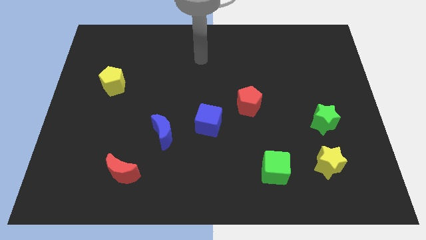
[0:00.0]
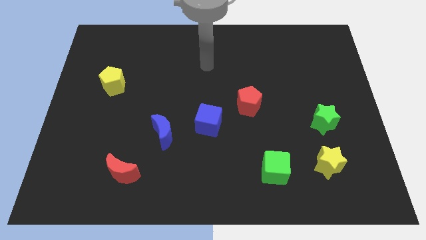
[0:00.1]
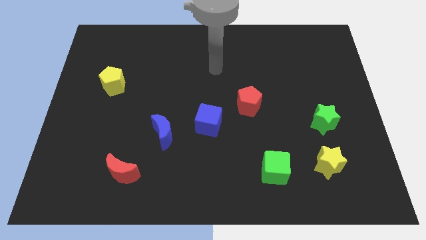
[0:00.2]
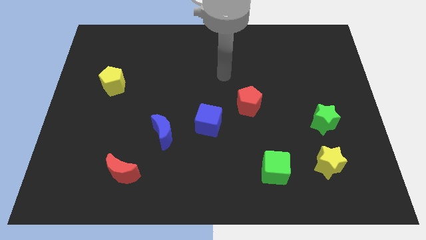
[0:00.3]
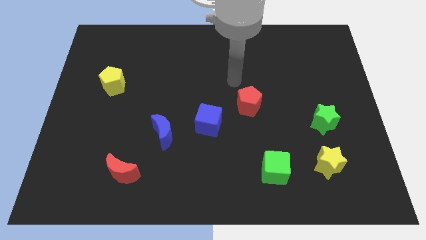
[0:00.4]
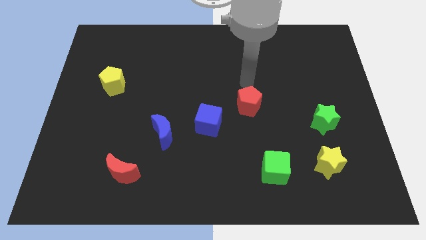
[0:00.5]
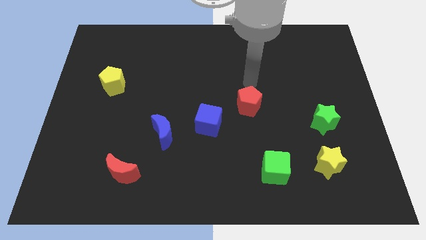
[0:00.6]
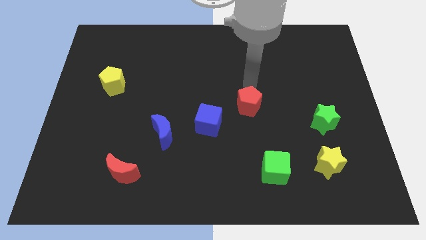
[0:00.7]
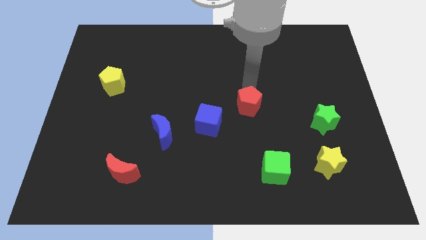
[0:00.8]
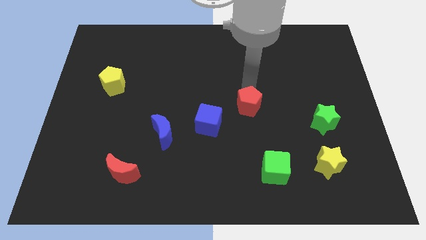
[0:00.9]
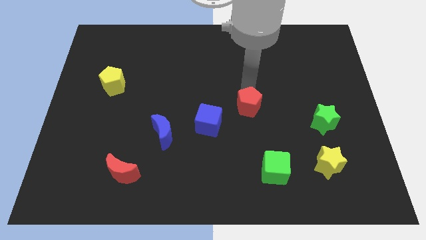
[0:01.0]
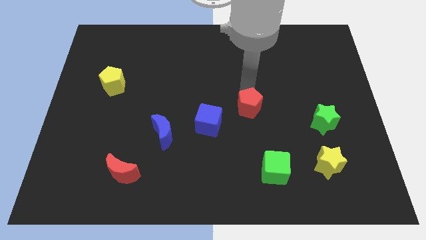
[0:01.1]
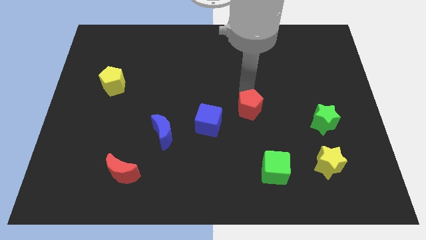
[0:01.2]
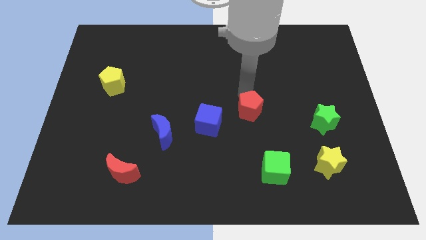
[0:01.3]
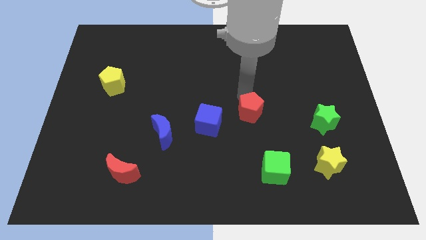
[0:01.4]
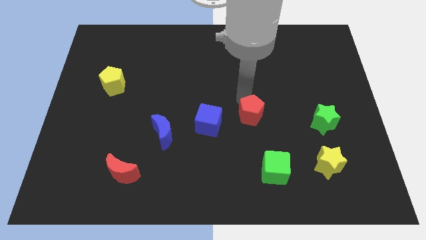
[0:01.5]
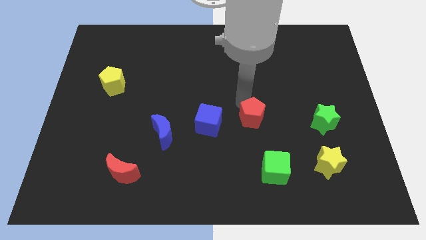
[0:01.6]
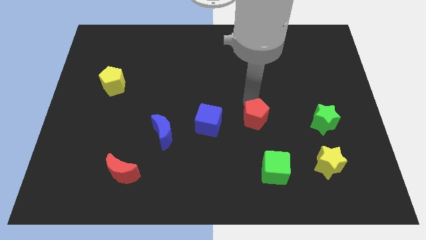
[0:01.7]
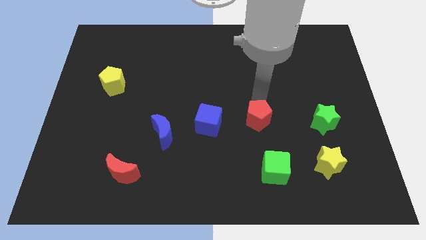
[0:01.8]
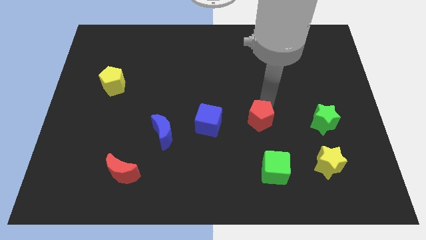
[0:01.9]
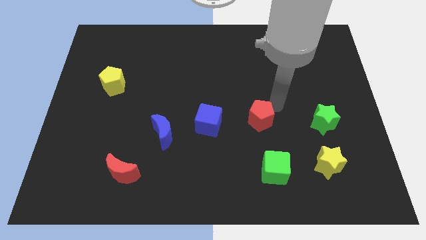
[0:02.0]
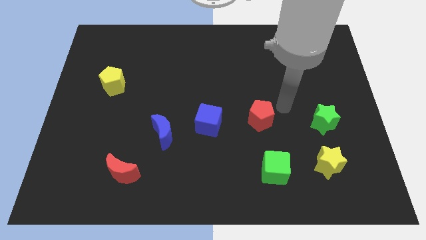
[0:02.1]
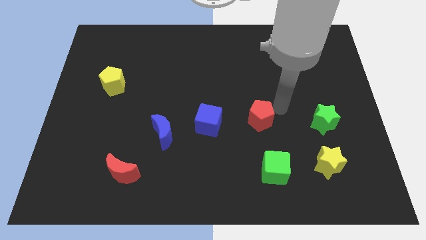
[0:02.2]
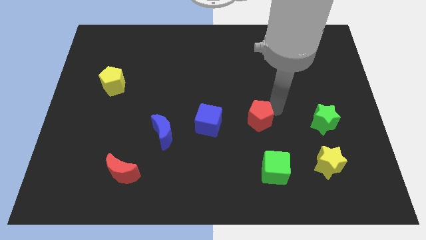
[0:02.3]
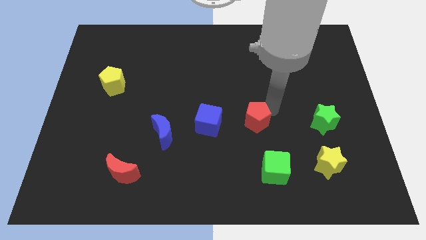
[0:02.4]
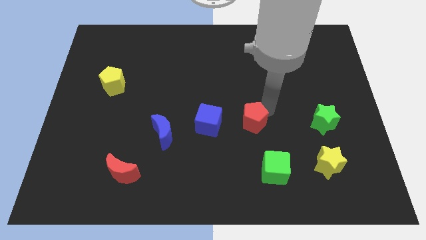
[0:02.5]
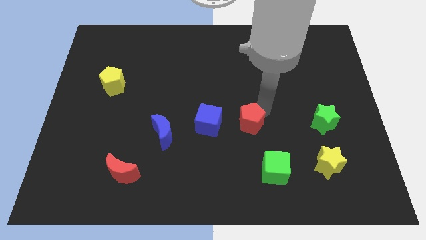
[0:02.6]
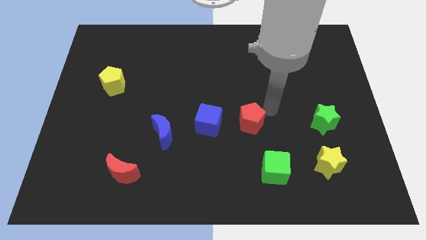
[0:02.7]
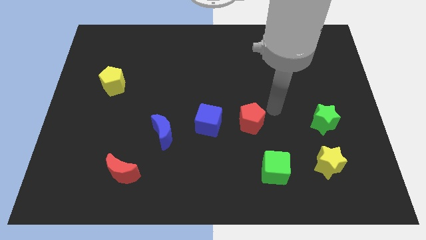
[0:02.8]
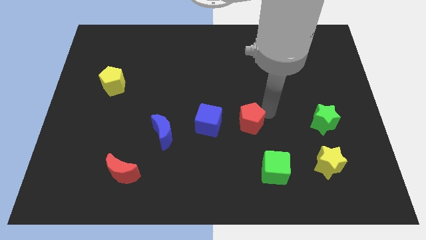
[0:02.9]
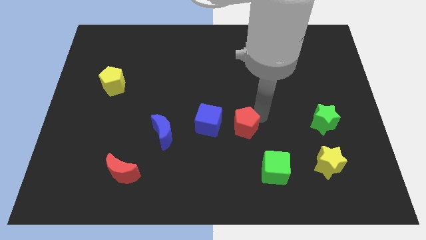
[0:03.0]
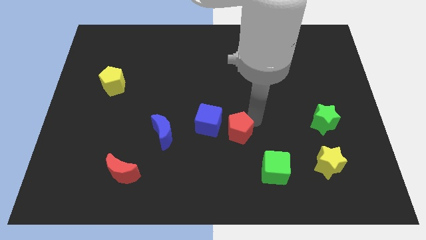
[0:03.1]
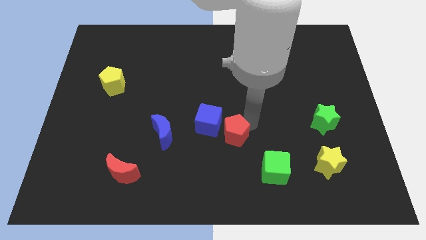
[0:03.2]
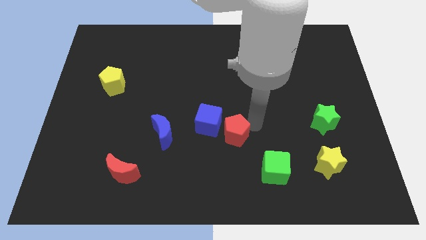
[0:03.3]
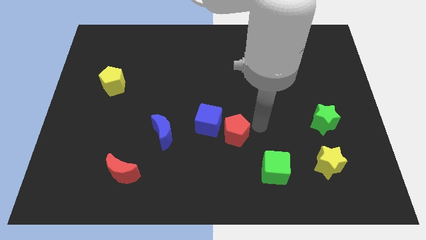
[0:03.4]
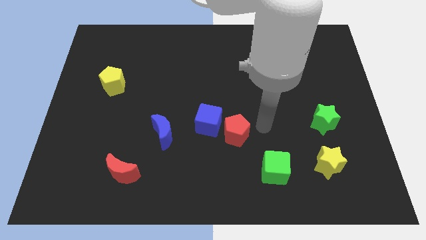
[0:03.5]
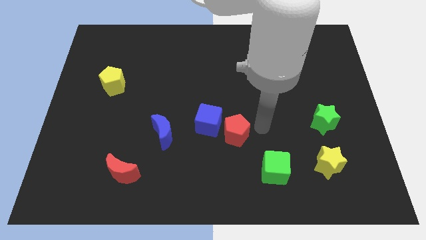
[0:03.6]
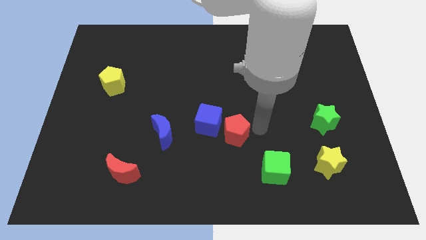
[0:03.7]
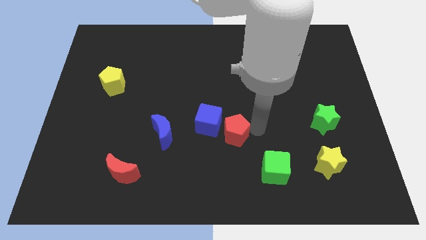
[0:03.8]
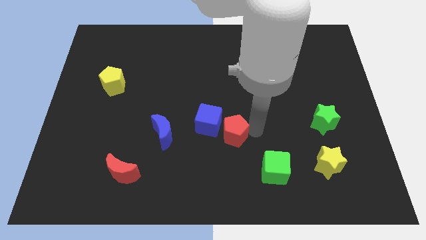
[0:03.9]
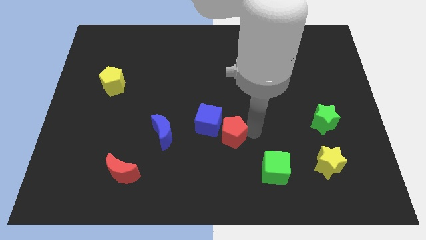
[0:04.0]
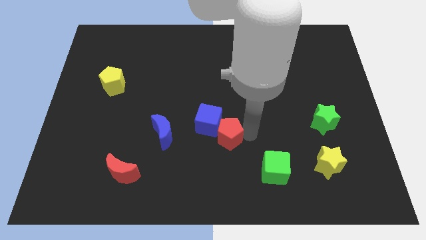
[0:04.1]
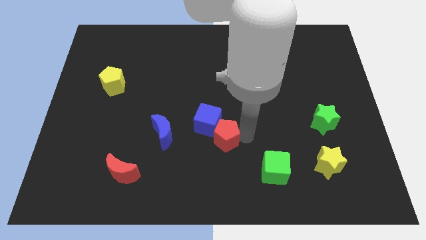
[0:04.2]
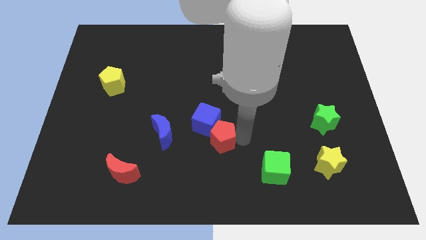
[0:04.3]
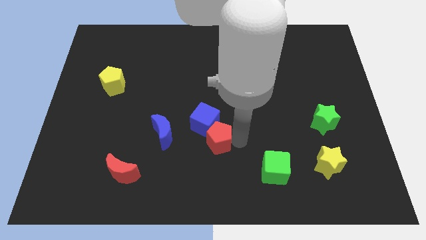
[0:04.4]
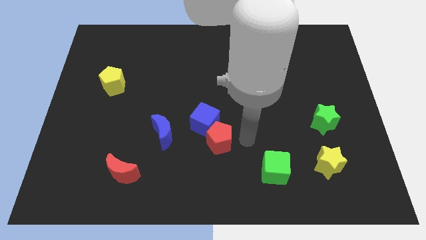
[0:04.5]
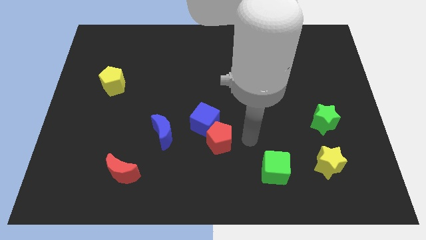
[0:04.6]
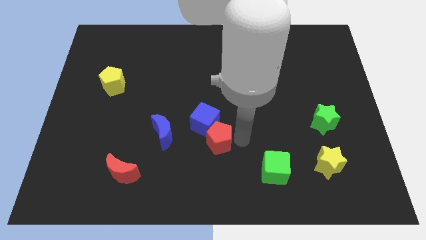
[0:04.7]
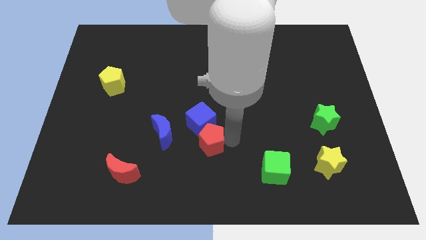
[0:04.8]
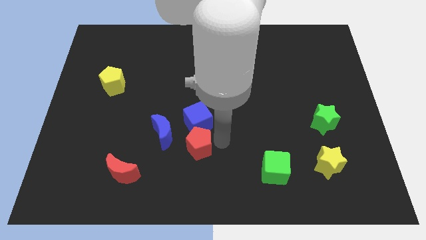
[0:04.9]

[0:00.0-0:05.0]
push the red pentagon diagonally down and to the left of the blue cube

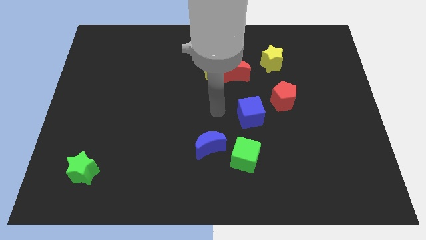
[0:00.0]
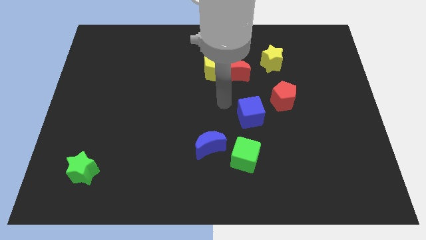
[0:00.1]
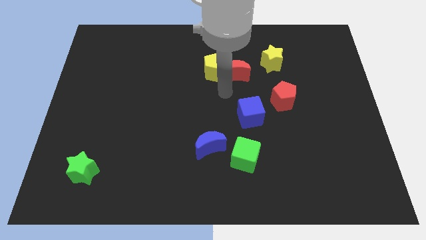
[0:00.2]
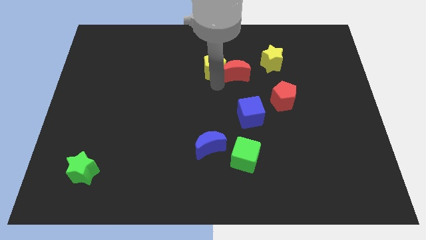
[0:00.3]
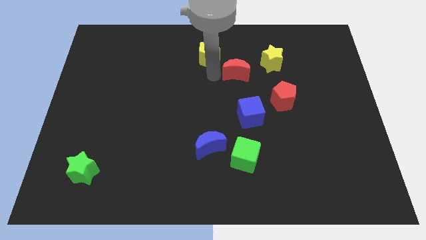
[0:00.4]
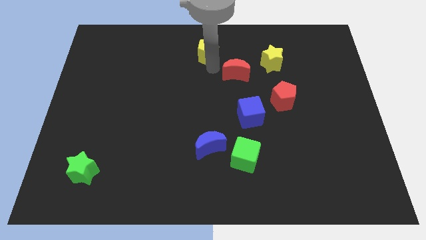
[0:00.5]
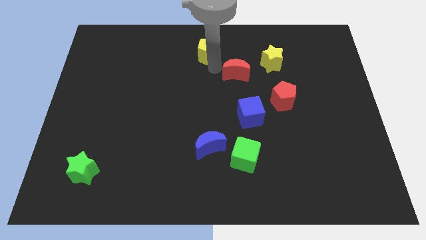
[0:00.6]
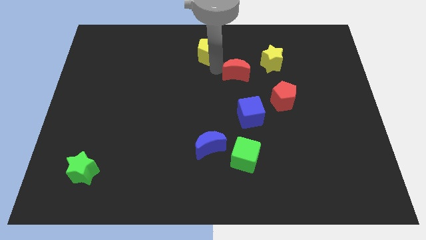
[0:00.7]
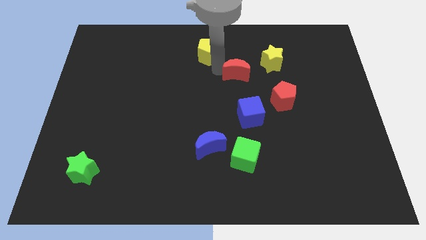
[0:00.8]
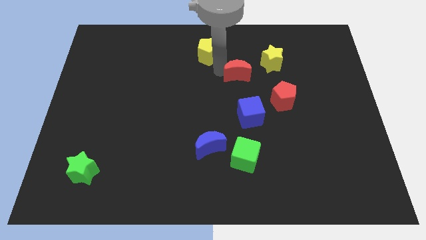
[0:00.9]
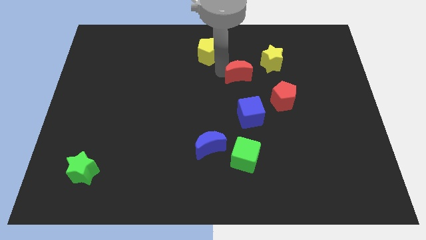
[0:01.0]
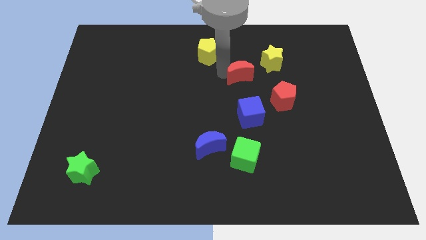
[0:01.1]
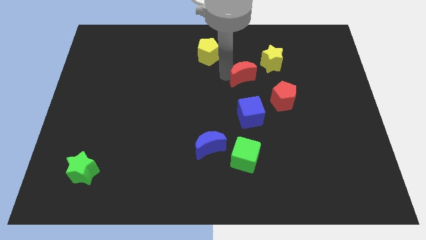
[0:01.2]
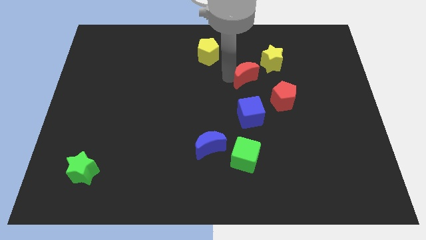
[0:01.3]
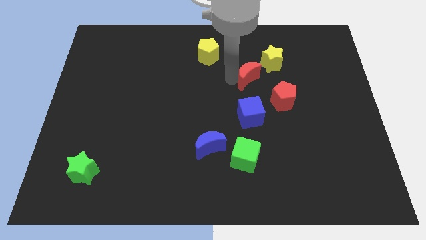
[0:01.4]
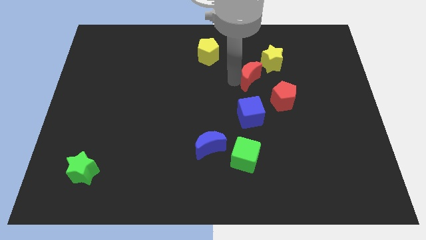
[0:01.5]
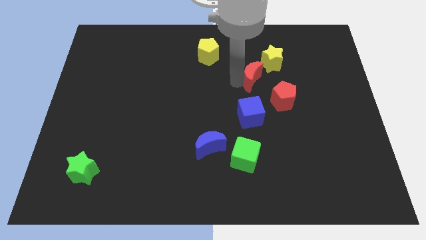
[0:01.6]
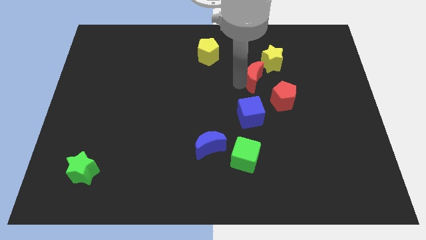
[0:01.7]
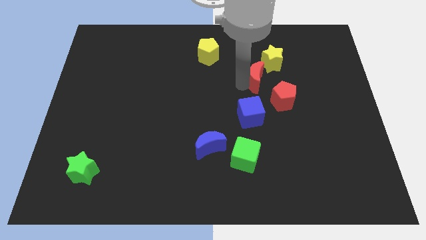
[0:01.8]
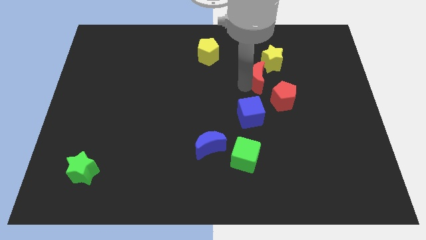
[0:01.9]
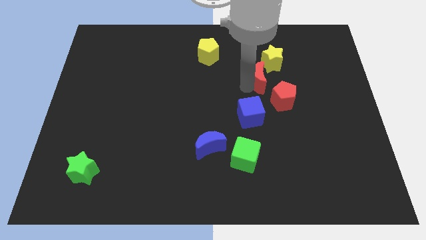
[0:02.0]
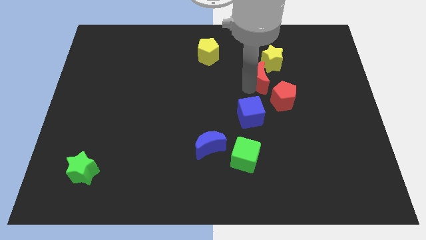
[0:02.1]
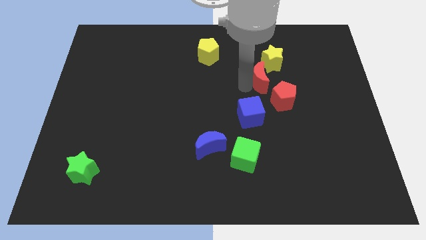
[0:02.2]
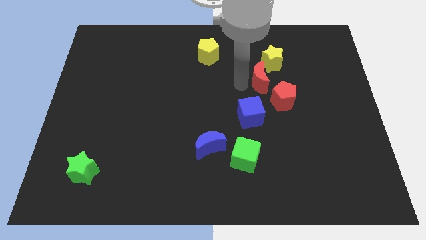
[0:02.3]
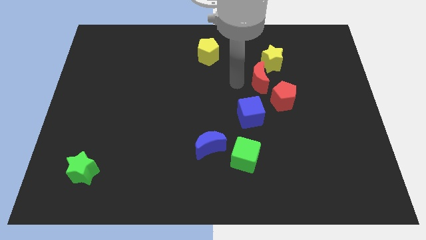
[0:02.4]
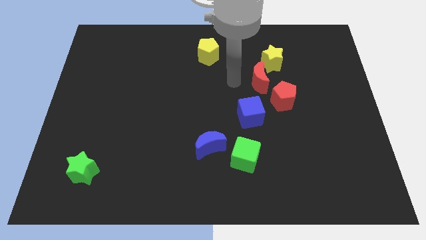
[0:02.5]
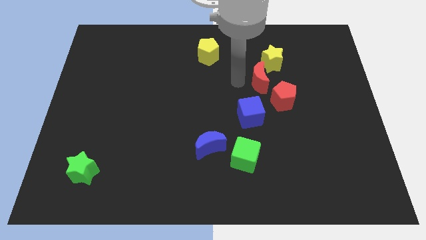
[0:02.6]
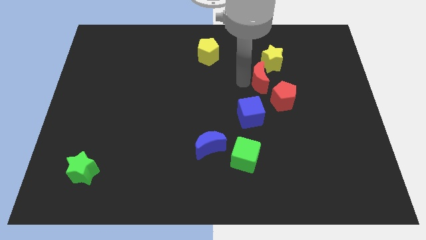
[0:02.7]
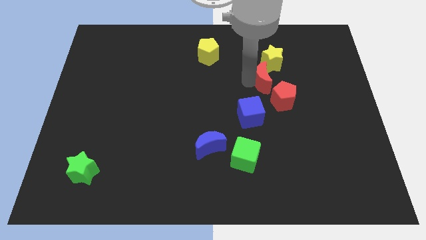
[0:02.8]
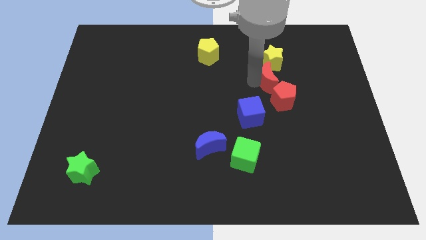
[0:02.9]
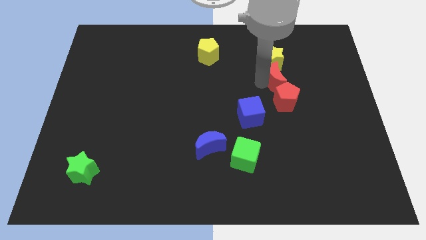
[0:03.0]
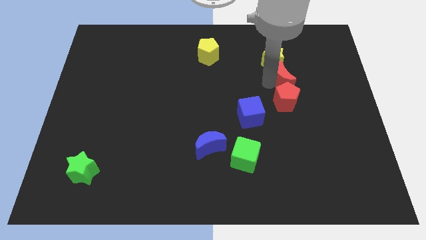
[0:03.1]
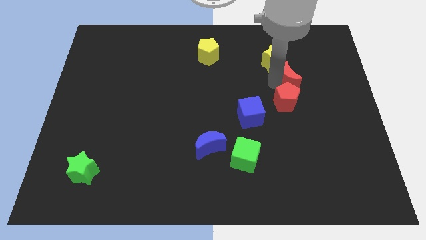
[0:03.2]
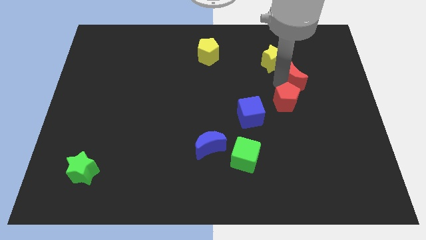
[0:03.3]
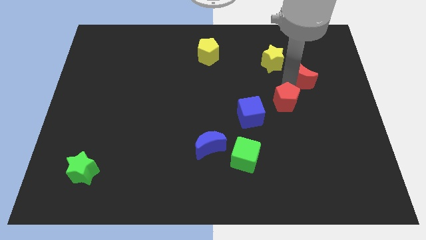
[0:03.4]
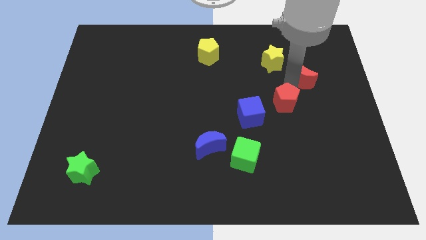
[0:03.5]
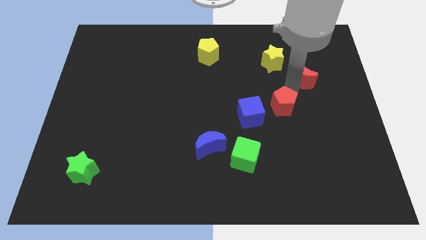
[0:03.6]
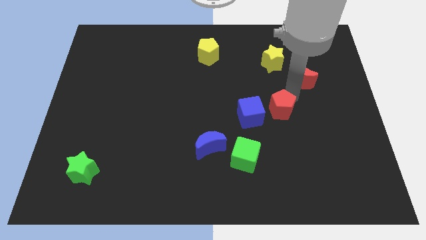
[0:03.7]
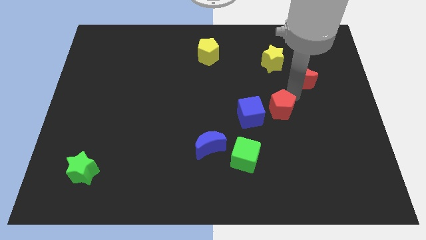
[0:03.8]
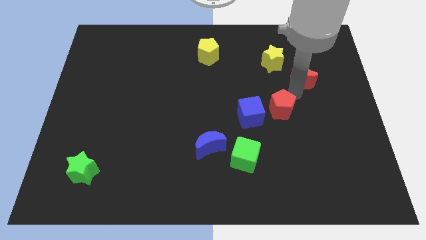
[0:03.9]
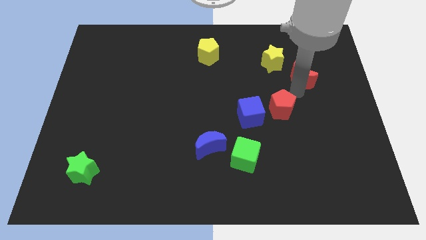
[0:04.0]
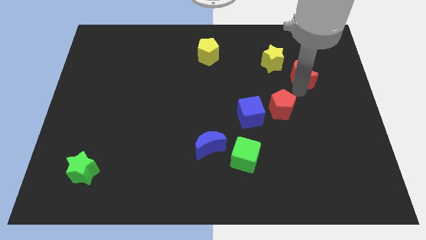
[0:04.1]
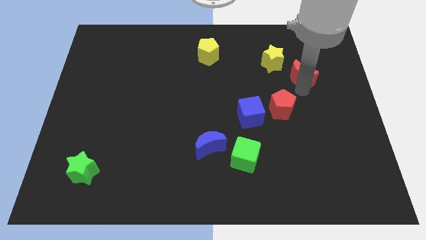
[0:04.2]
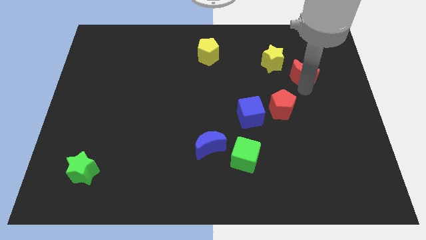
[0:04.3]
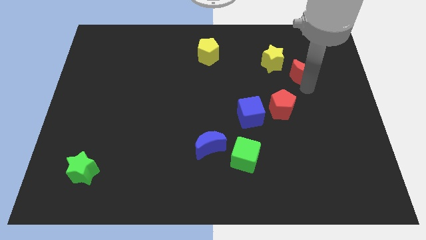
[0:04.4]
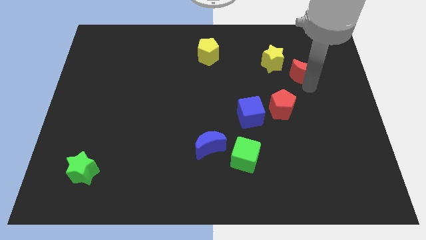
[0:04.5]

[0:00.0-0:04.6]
slide the red moon to the right of the yellow star
